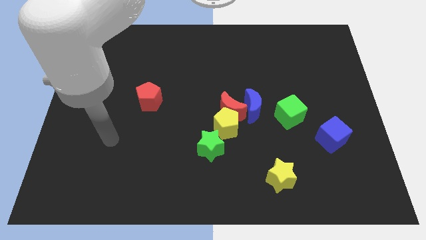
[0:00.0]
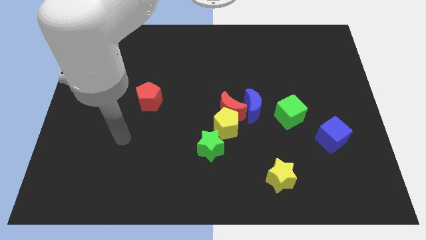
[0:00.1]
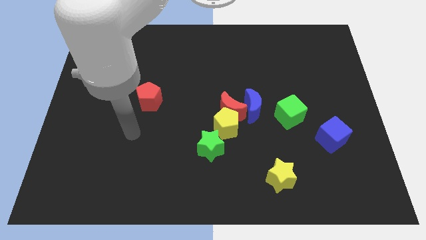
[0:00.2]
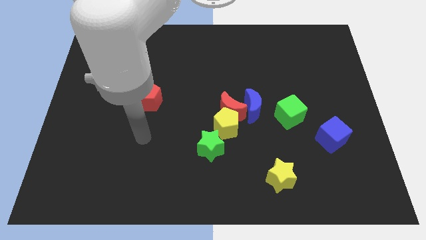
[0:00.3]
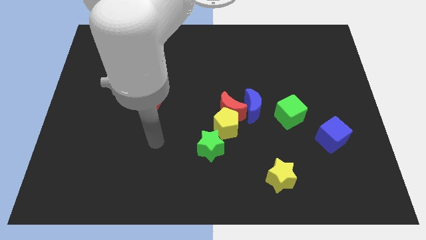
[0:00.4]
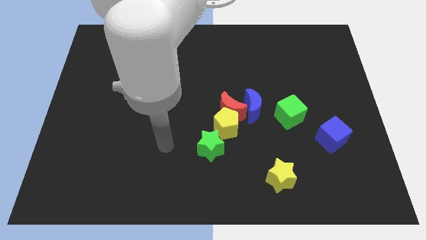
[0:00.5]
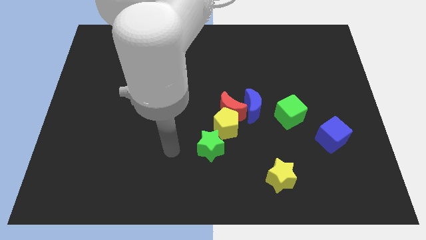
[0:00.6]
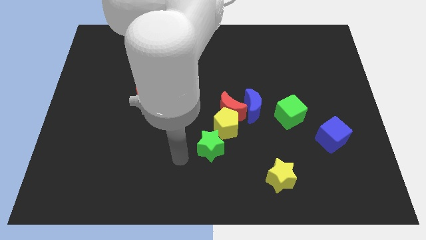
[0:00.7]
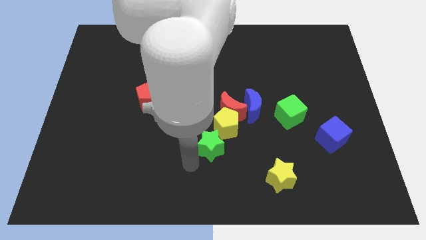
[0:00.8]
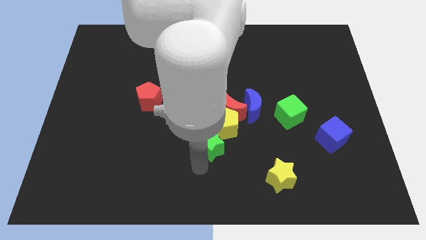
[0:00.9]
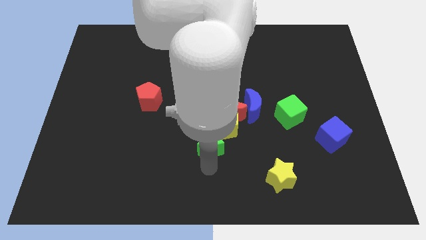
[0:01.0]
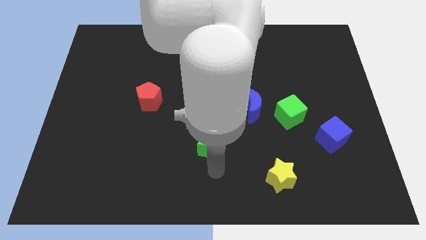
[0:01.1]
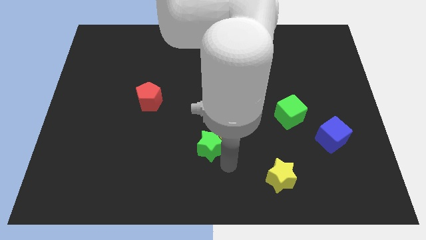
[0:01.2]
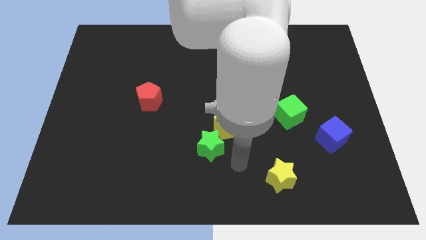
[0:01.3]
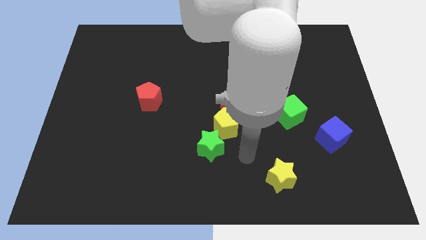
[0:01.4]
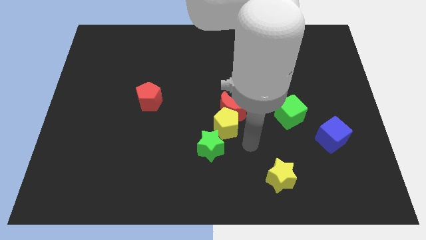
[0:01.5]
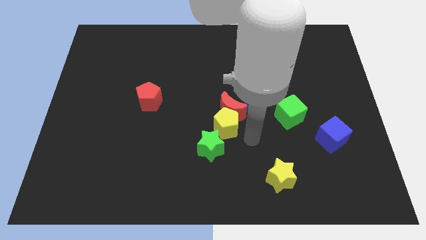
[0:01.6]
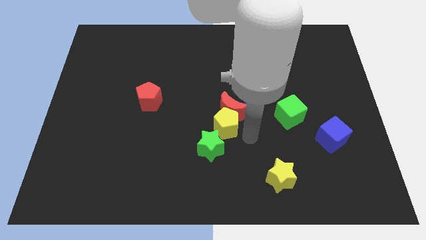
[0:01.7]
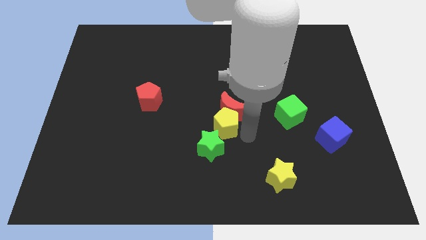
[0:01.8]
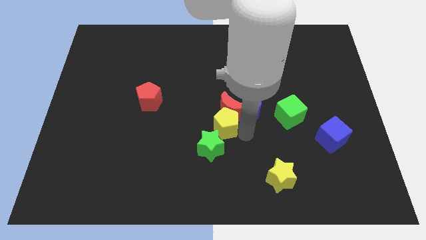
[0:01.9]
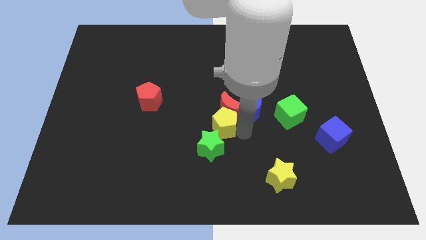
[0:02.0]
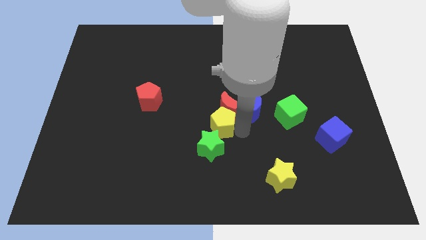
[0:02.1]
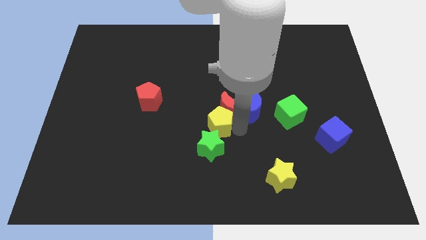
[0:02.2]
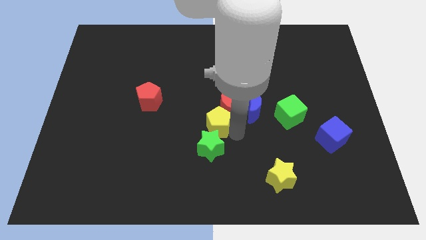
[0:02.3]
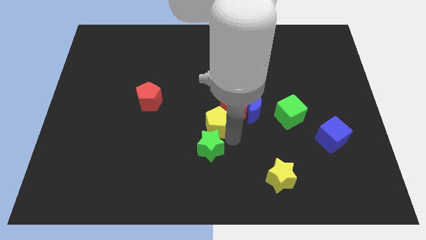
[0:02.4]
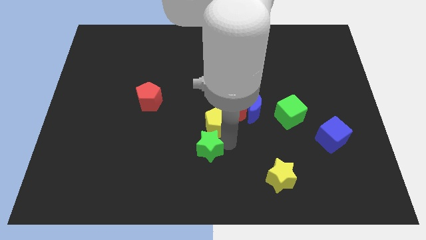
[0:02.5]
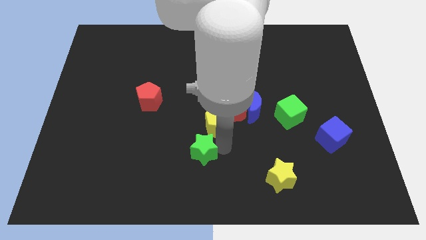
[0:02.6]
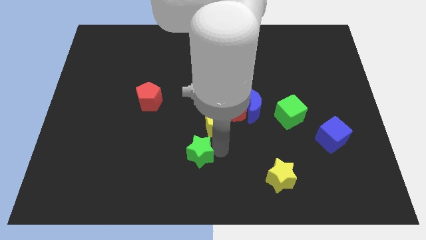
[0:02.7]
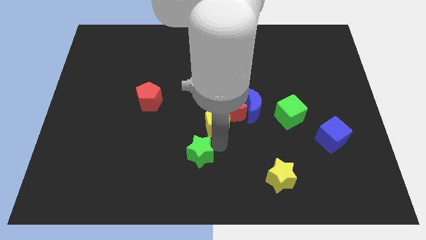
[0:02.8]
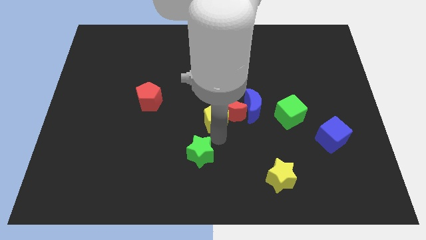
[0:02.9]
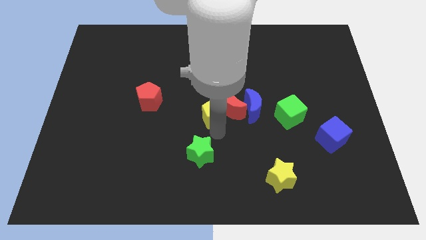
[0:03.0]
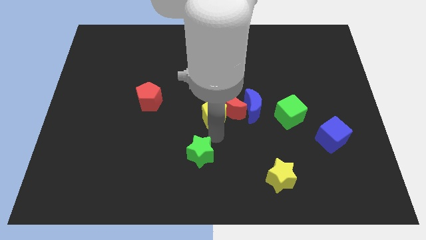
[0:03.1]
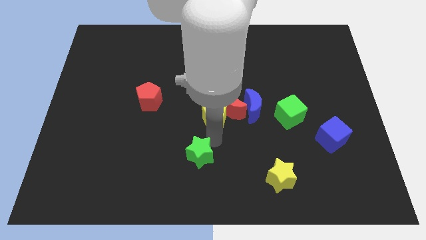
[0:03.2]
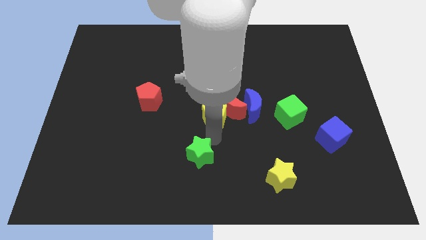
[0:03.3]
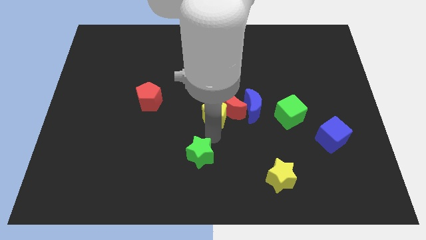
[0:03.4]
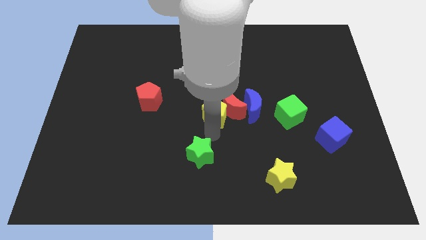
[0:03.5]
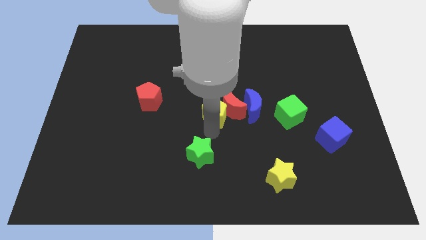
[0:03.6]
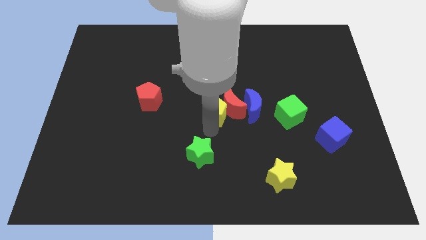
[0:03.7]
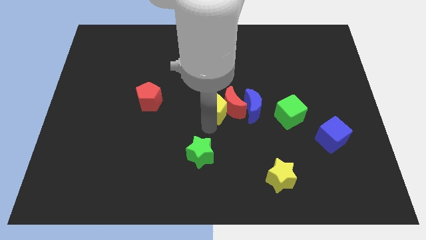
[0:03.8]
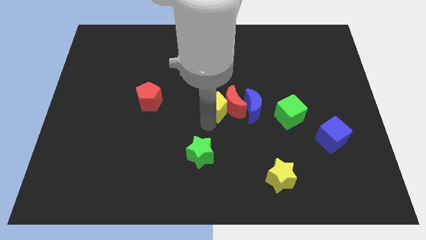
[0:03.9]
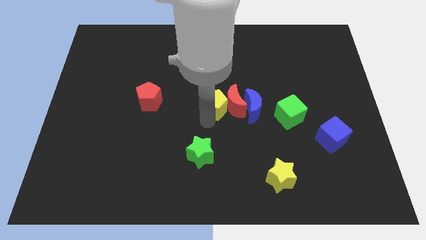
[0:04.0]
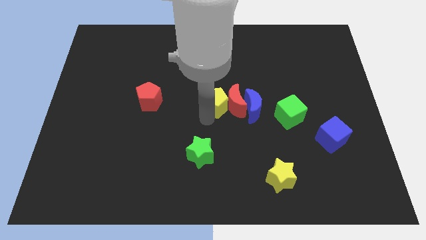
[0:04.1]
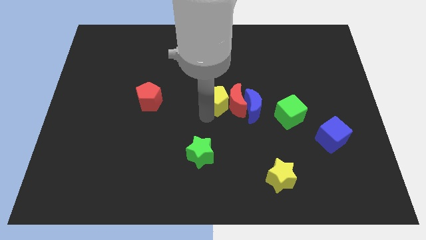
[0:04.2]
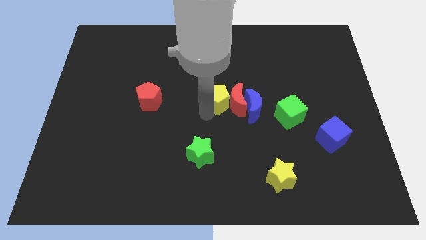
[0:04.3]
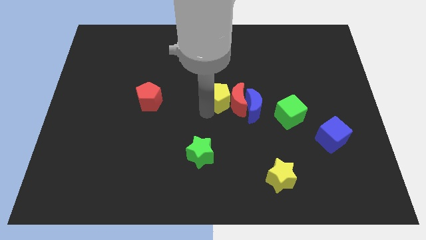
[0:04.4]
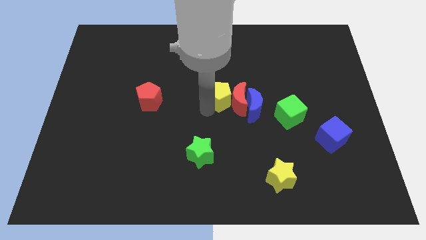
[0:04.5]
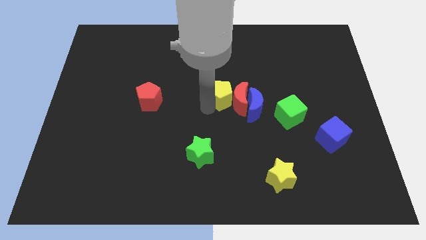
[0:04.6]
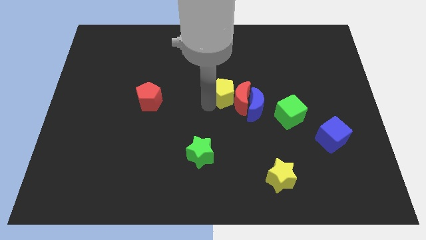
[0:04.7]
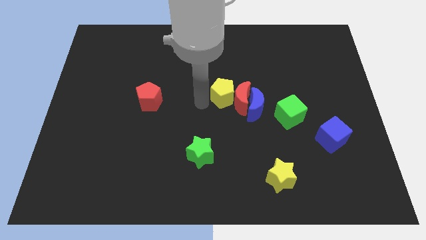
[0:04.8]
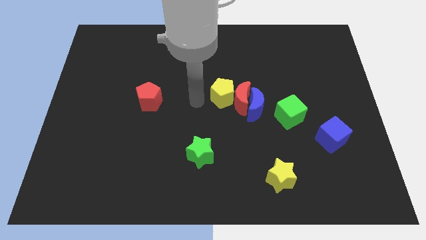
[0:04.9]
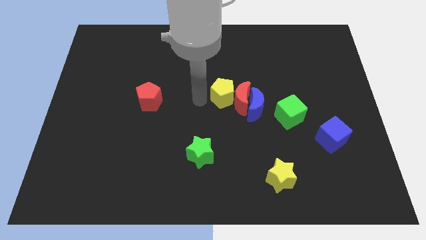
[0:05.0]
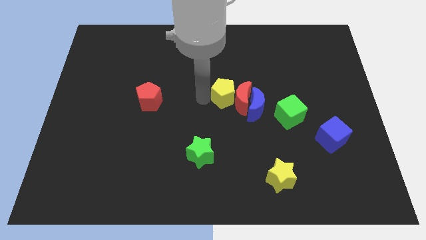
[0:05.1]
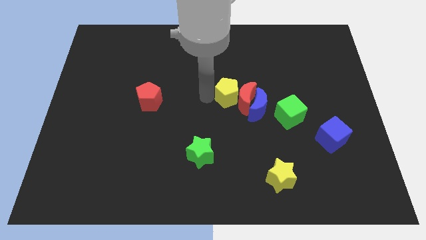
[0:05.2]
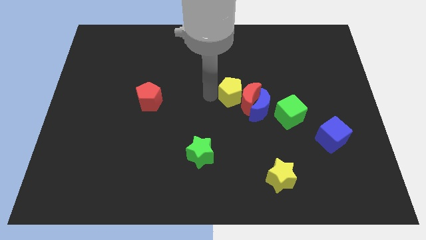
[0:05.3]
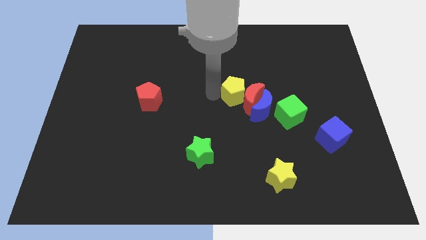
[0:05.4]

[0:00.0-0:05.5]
push the yellow pentagon slightly upwards and right diagonally

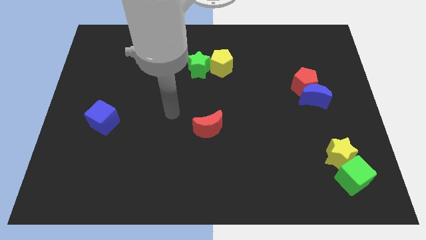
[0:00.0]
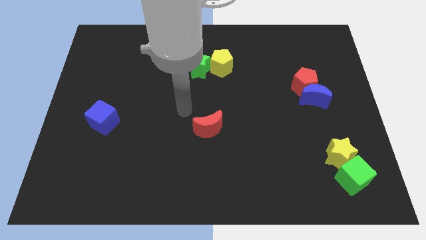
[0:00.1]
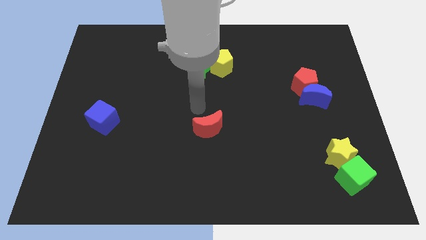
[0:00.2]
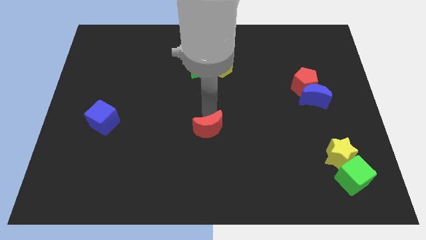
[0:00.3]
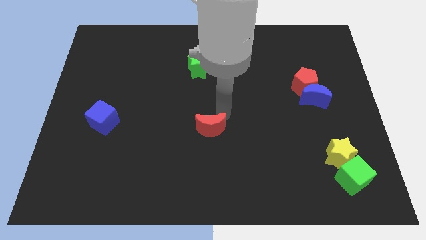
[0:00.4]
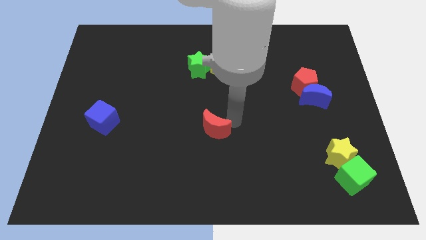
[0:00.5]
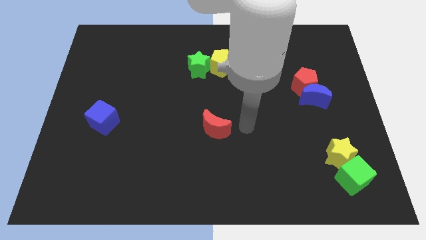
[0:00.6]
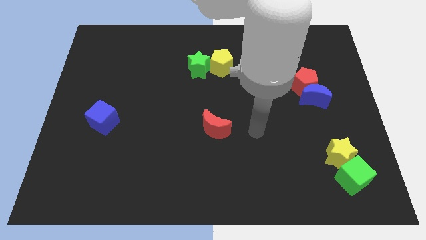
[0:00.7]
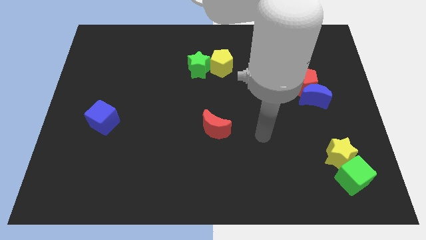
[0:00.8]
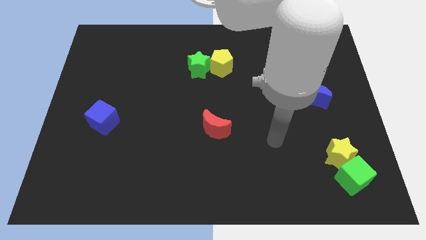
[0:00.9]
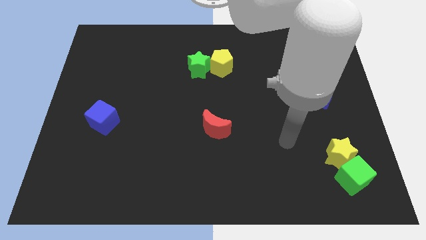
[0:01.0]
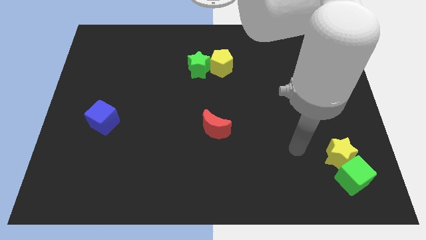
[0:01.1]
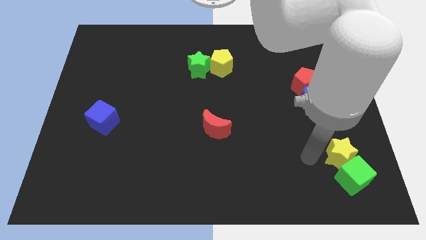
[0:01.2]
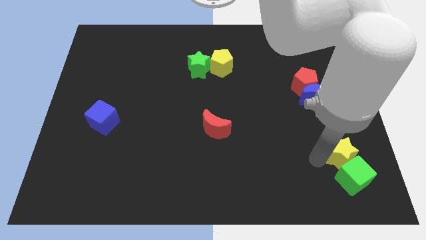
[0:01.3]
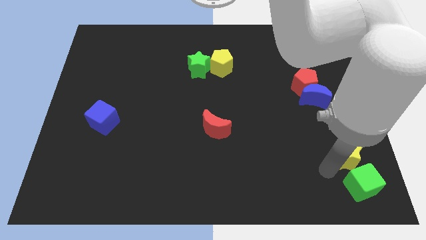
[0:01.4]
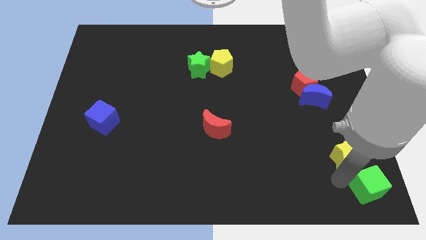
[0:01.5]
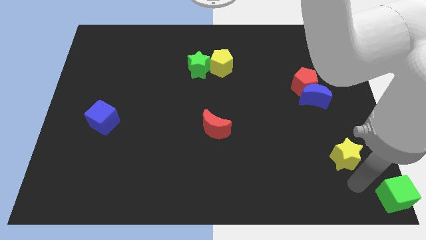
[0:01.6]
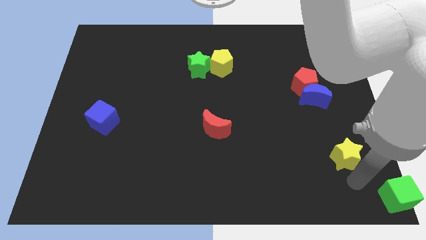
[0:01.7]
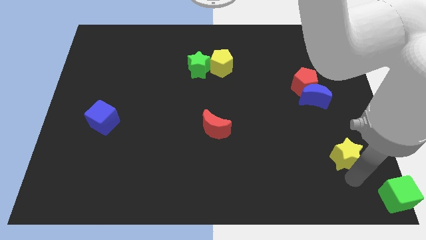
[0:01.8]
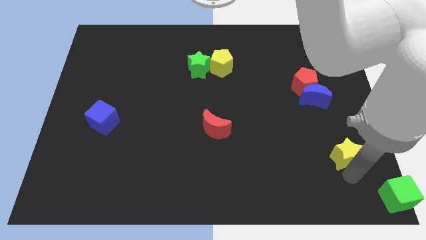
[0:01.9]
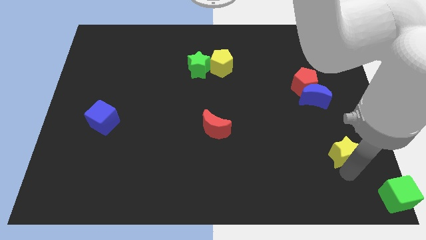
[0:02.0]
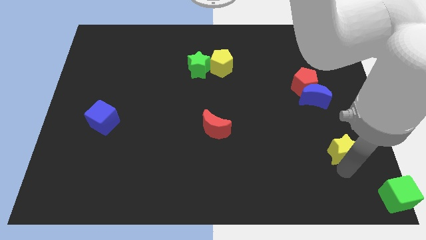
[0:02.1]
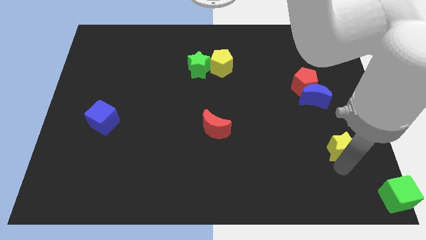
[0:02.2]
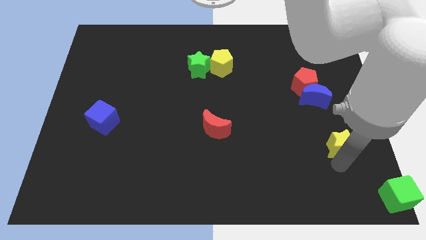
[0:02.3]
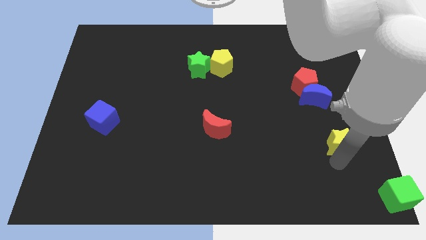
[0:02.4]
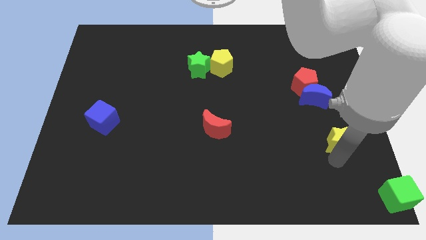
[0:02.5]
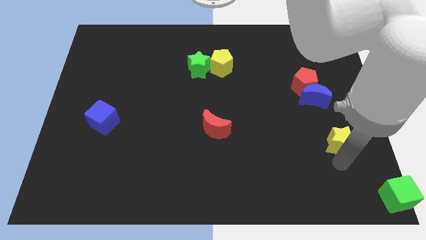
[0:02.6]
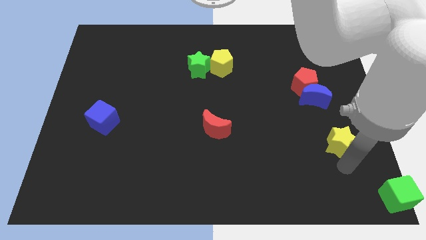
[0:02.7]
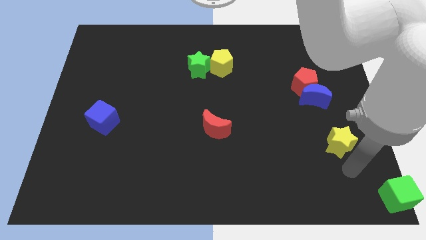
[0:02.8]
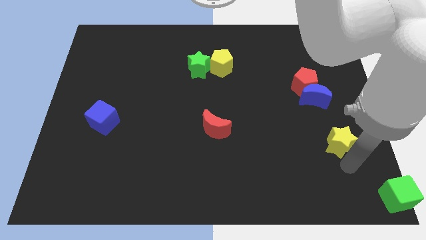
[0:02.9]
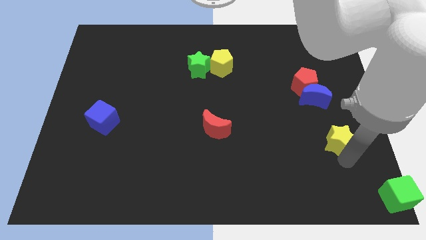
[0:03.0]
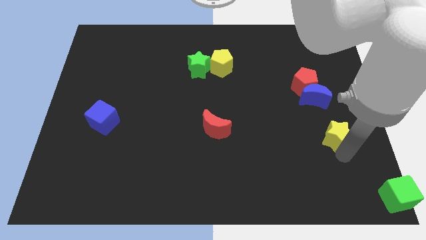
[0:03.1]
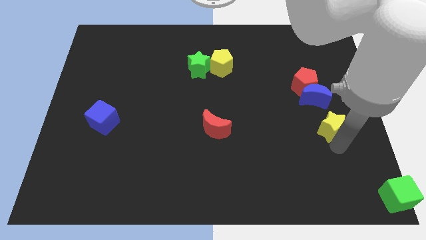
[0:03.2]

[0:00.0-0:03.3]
slightly move the yellow star up
